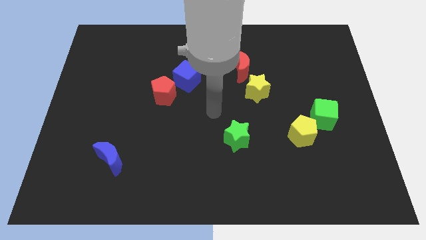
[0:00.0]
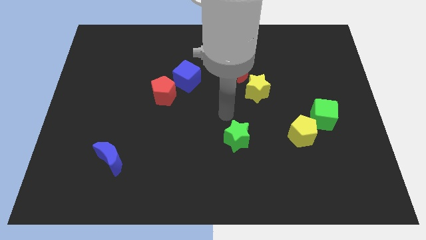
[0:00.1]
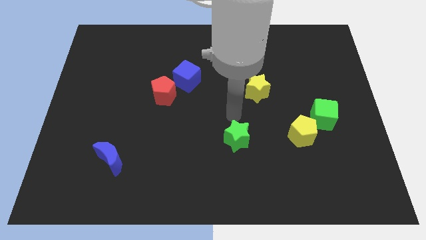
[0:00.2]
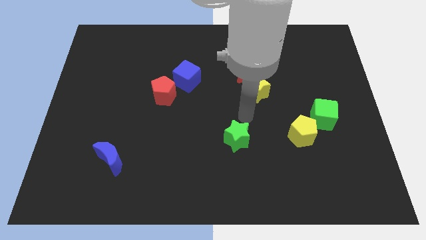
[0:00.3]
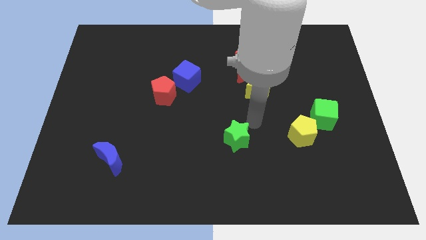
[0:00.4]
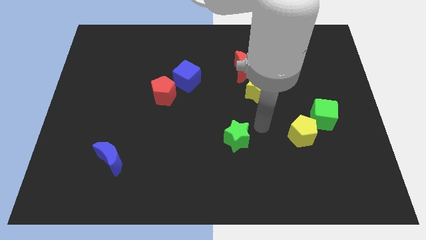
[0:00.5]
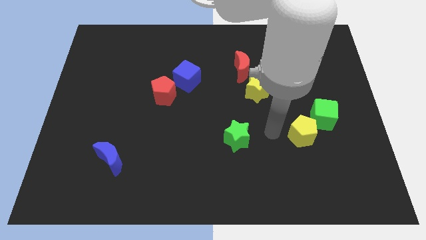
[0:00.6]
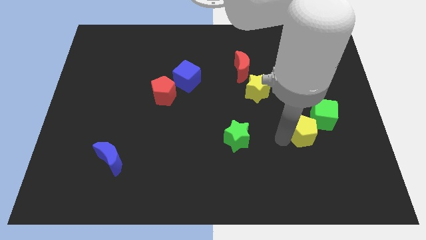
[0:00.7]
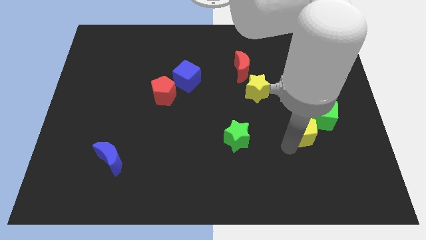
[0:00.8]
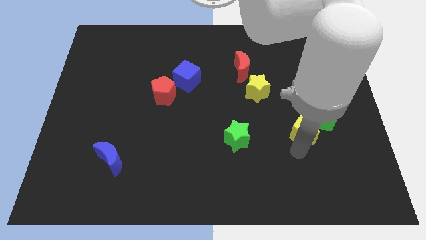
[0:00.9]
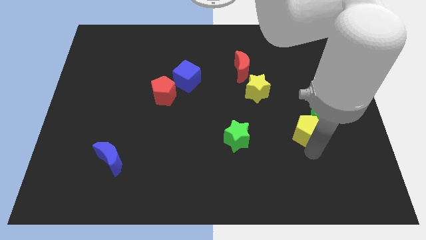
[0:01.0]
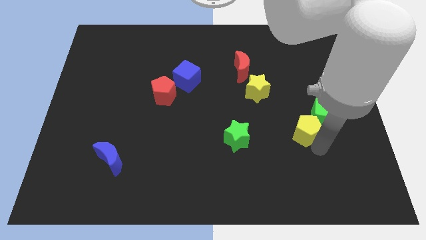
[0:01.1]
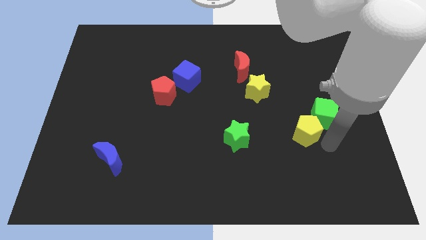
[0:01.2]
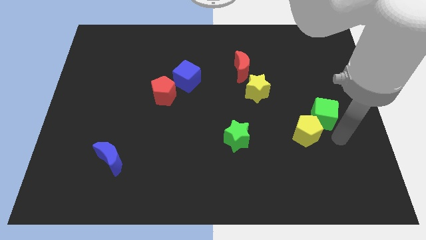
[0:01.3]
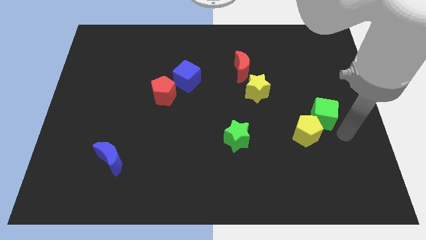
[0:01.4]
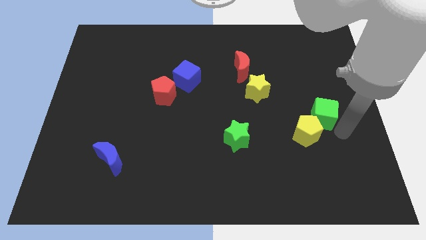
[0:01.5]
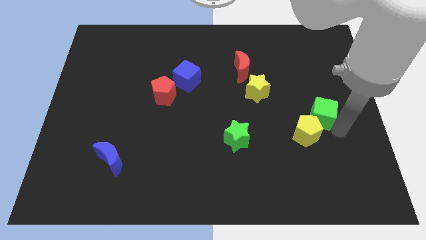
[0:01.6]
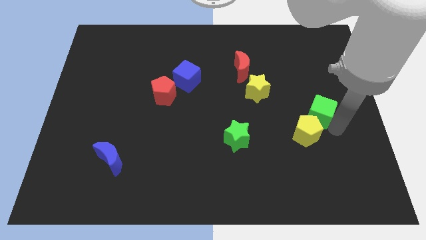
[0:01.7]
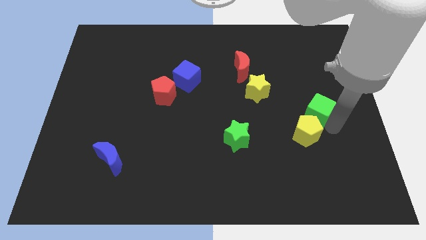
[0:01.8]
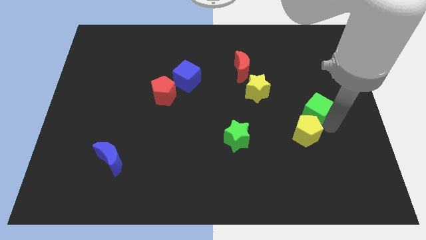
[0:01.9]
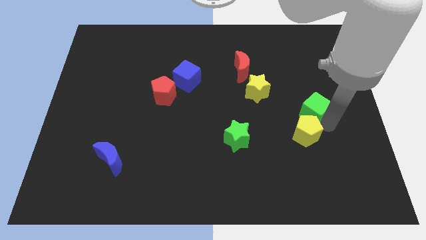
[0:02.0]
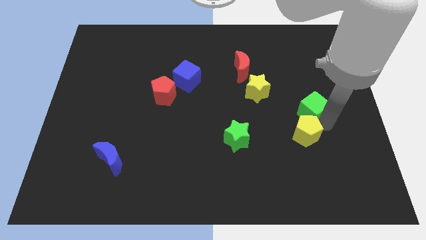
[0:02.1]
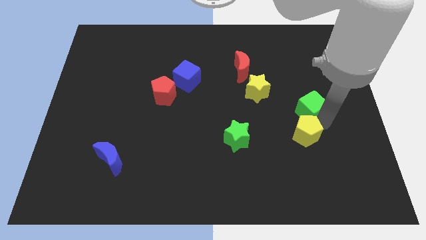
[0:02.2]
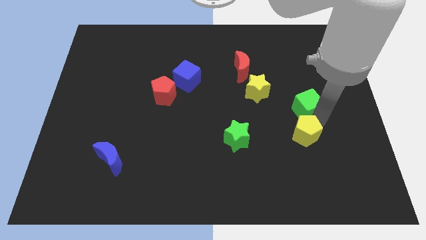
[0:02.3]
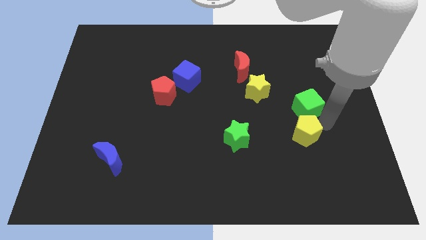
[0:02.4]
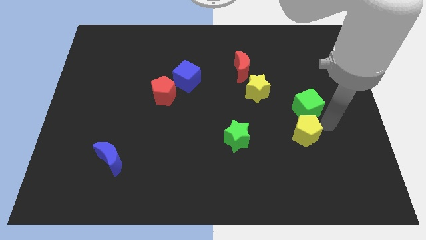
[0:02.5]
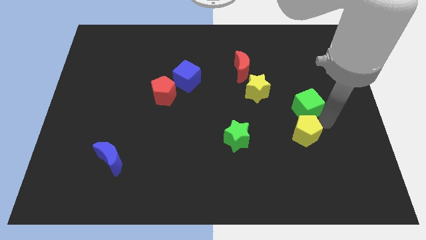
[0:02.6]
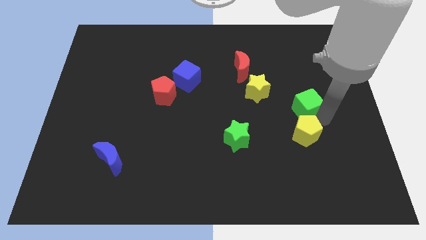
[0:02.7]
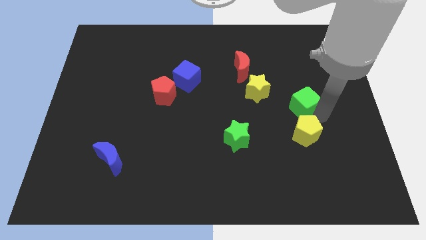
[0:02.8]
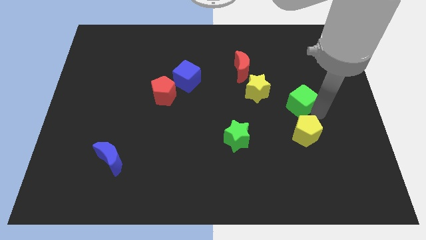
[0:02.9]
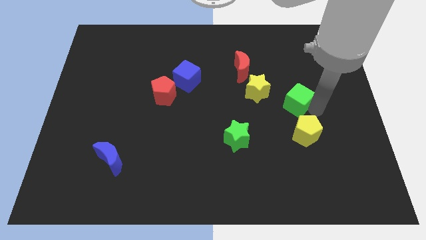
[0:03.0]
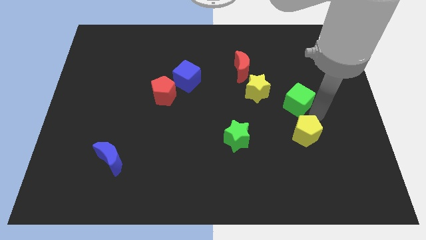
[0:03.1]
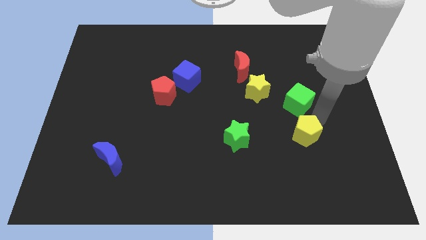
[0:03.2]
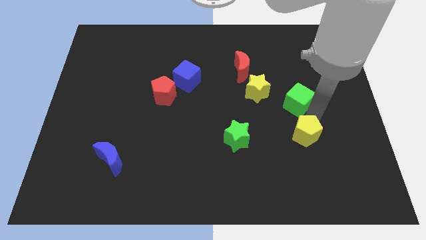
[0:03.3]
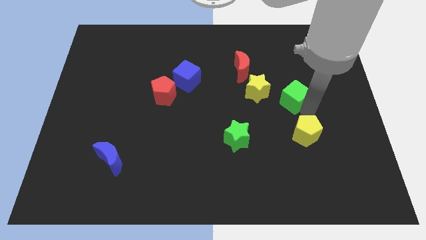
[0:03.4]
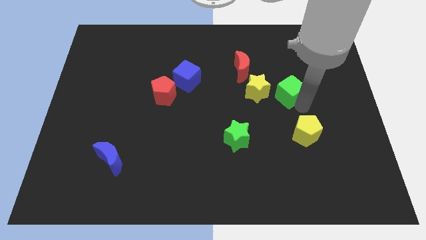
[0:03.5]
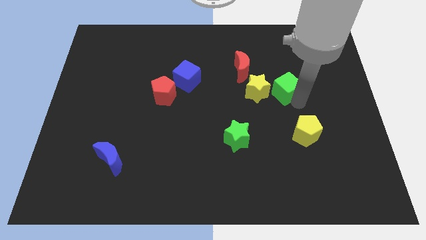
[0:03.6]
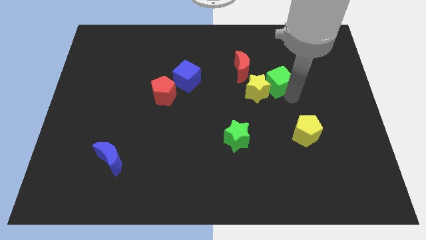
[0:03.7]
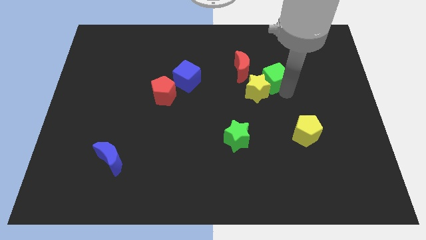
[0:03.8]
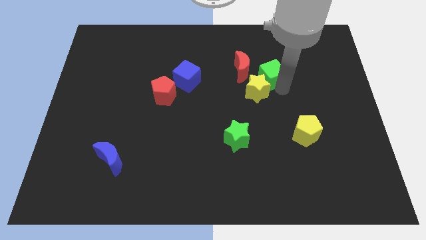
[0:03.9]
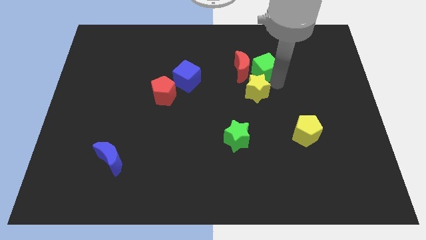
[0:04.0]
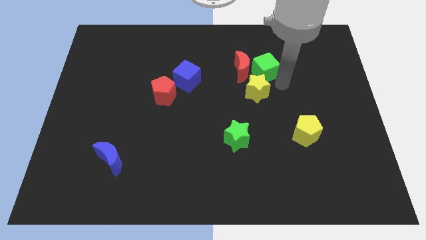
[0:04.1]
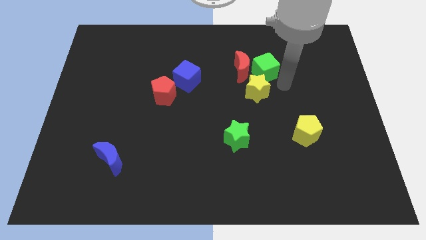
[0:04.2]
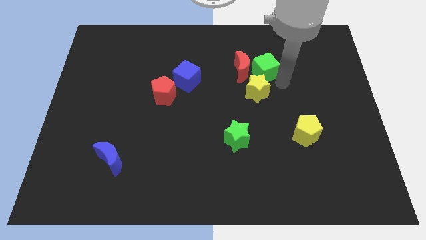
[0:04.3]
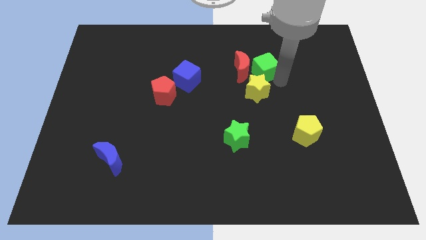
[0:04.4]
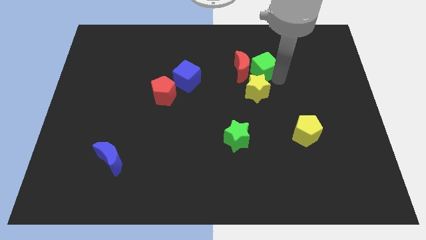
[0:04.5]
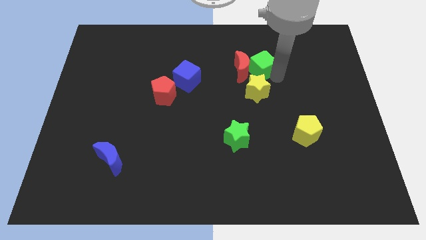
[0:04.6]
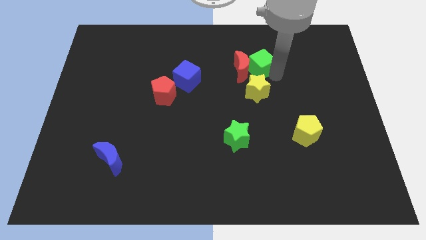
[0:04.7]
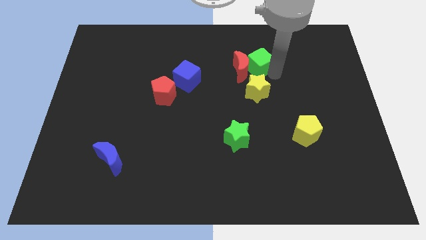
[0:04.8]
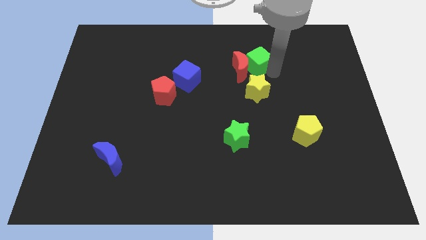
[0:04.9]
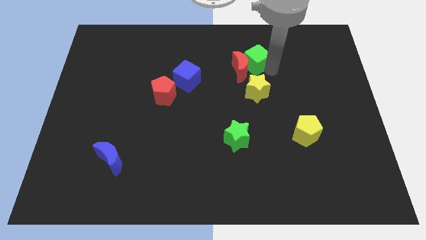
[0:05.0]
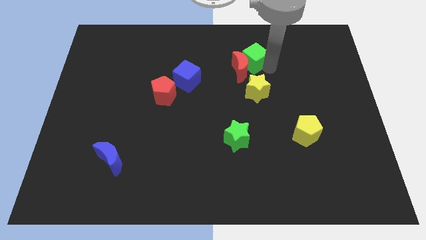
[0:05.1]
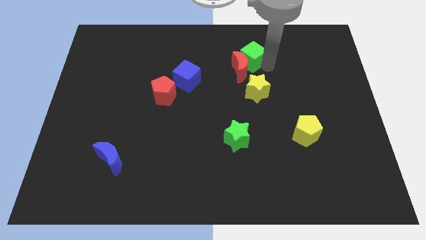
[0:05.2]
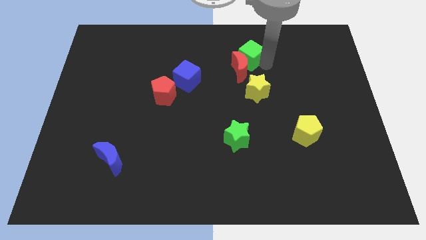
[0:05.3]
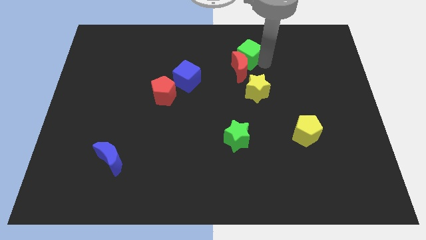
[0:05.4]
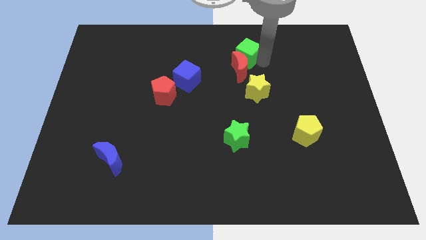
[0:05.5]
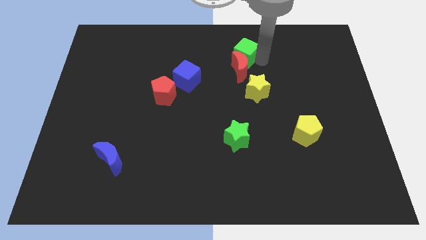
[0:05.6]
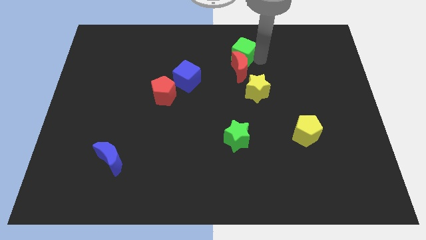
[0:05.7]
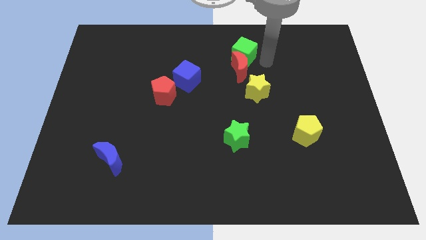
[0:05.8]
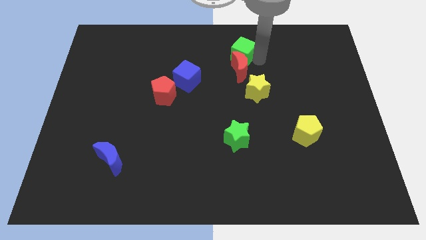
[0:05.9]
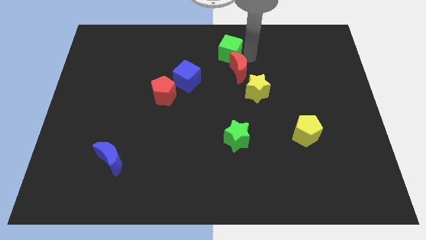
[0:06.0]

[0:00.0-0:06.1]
push the green cube to the towards your base

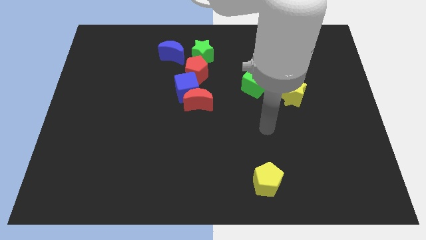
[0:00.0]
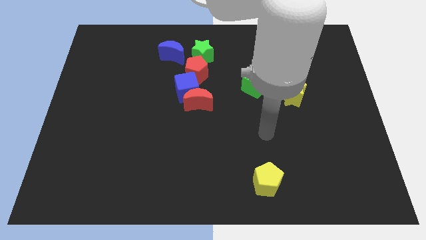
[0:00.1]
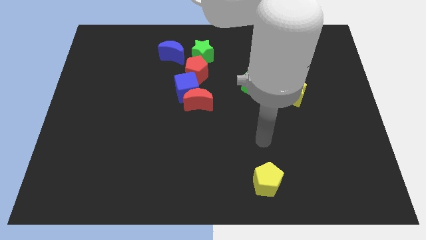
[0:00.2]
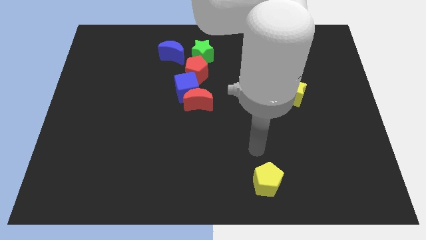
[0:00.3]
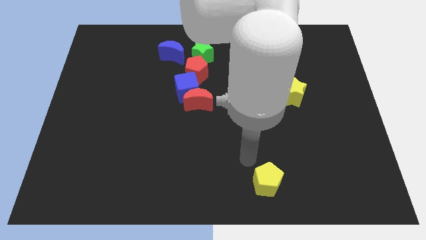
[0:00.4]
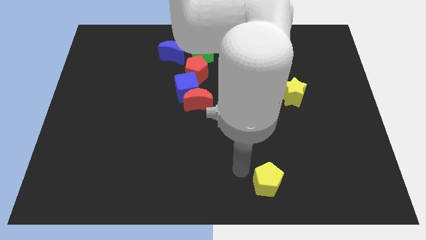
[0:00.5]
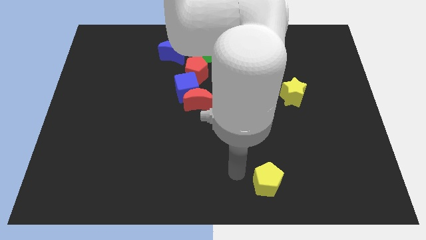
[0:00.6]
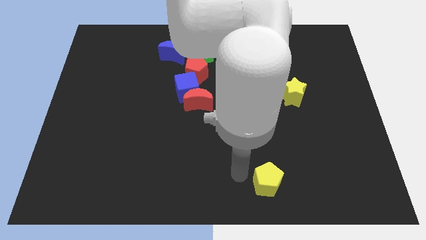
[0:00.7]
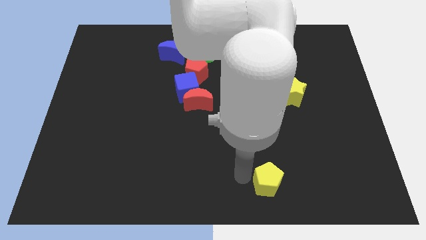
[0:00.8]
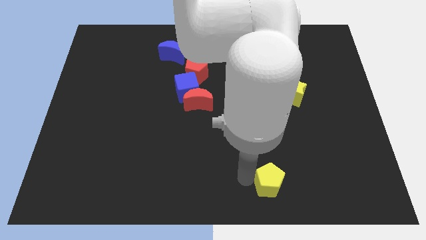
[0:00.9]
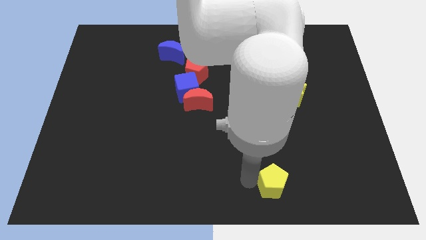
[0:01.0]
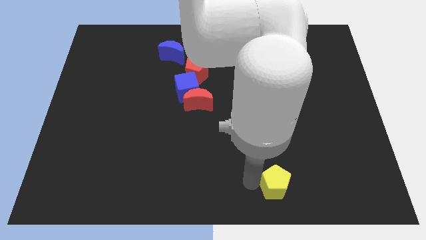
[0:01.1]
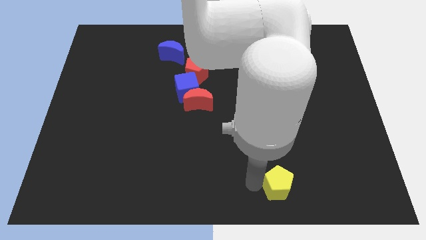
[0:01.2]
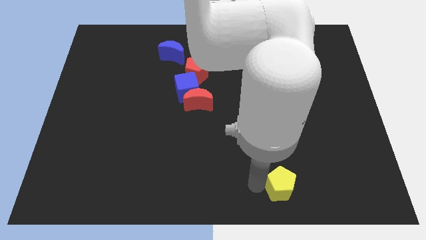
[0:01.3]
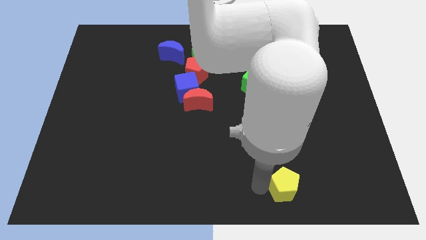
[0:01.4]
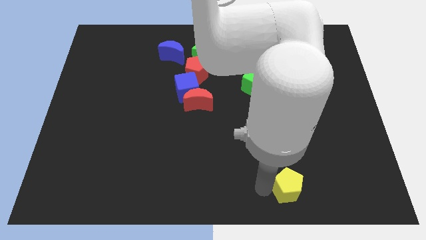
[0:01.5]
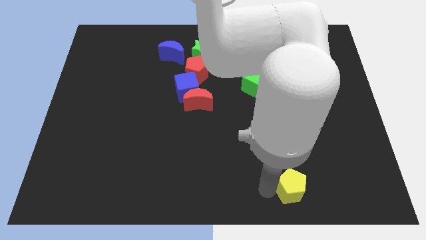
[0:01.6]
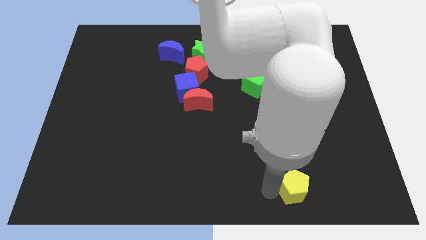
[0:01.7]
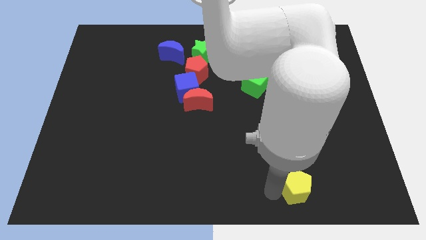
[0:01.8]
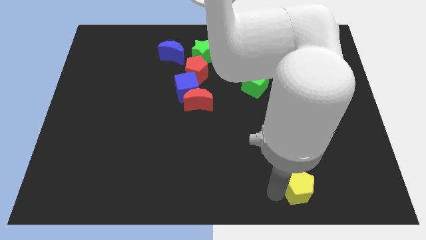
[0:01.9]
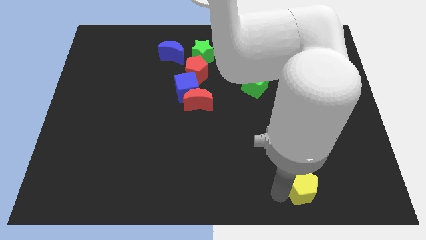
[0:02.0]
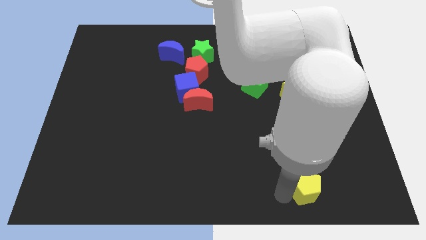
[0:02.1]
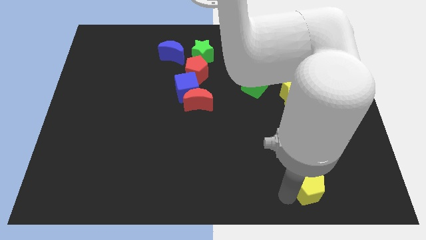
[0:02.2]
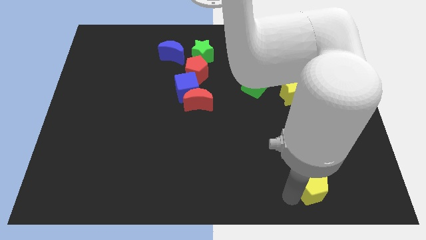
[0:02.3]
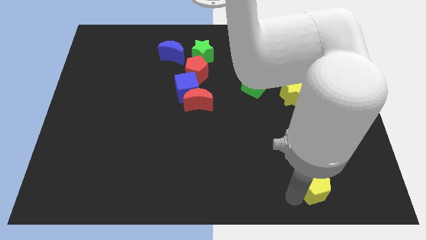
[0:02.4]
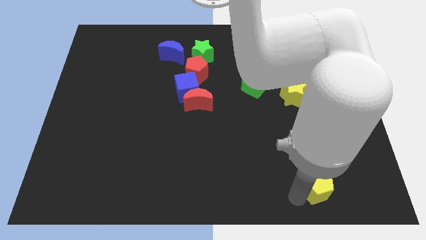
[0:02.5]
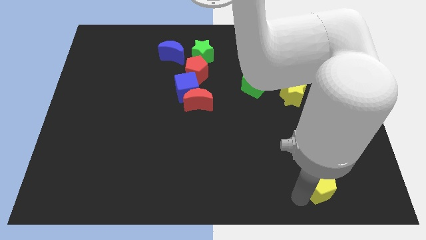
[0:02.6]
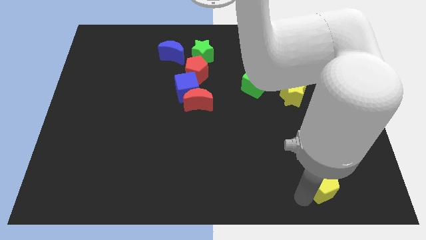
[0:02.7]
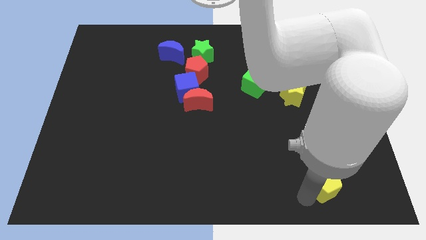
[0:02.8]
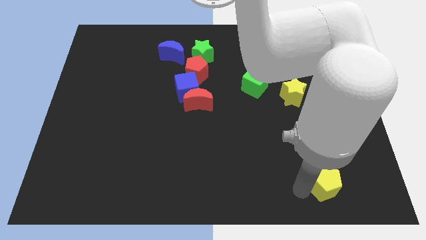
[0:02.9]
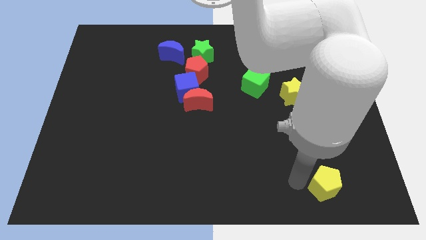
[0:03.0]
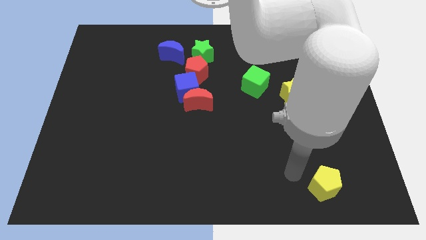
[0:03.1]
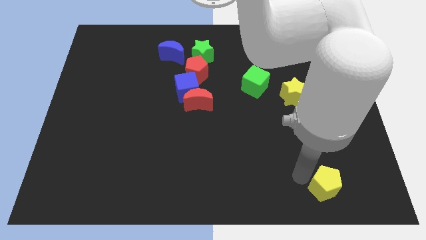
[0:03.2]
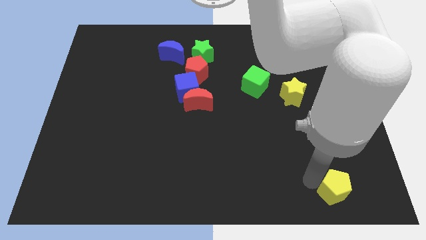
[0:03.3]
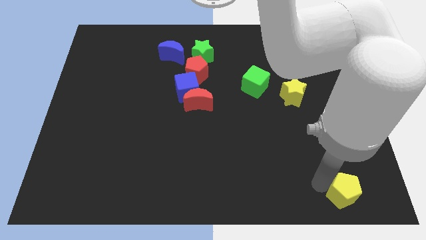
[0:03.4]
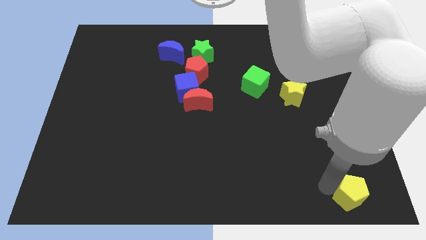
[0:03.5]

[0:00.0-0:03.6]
slide the yellow pentagon to the bottom right of the board
